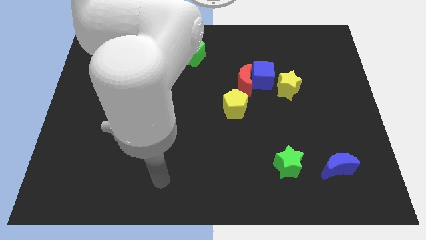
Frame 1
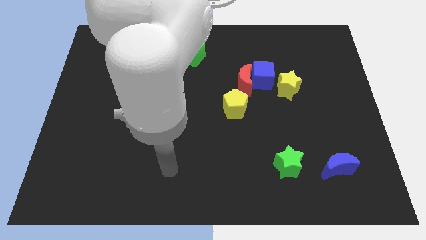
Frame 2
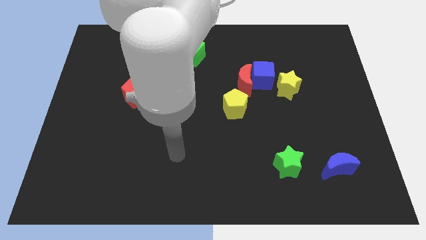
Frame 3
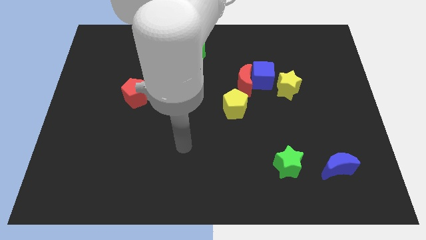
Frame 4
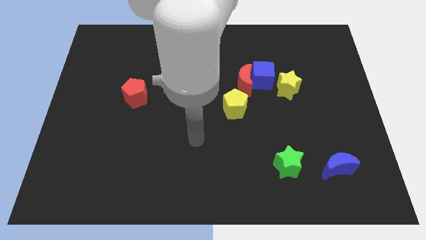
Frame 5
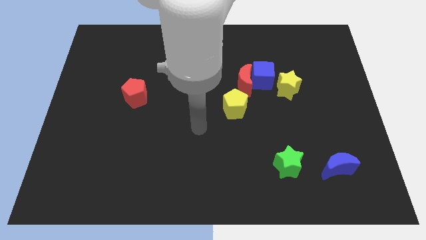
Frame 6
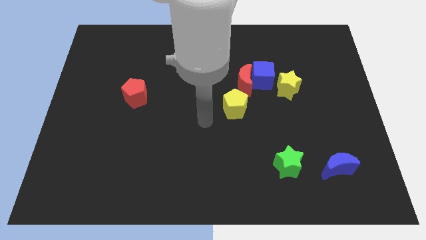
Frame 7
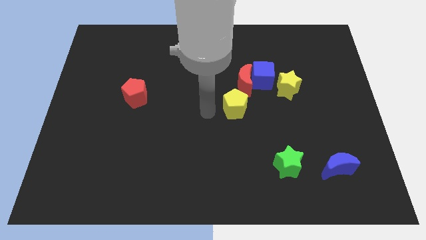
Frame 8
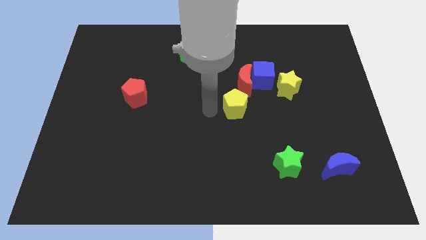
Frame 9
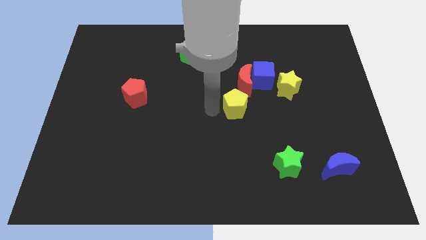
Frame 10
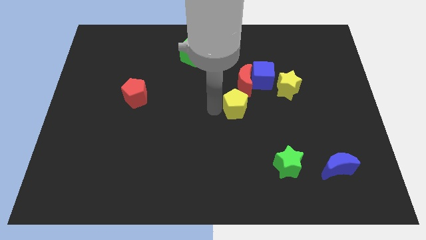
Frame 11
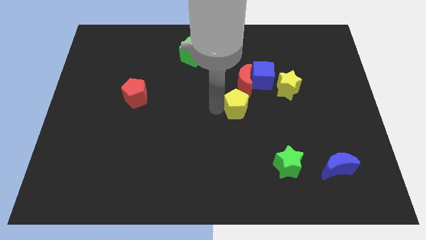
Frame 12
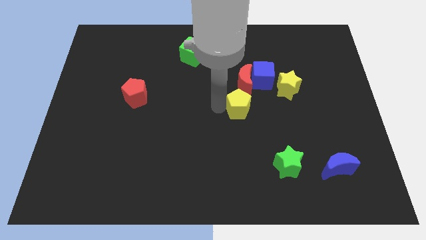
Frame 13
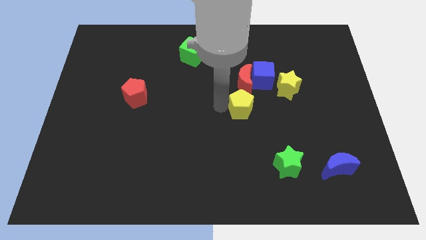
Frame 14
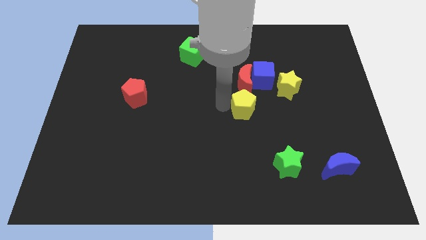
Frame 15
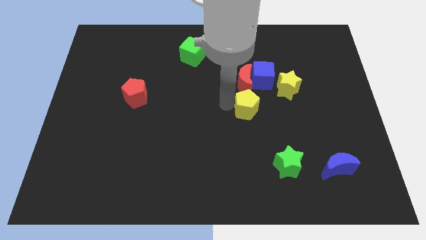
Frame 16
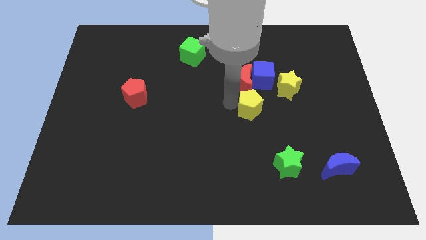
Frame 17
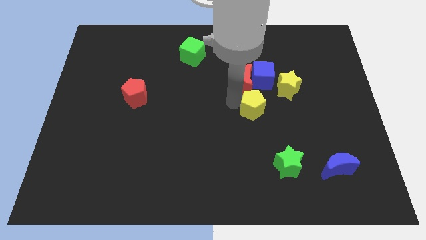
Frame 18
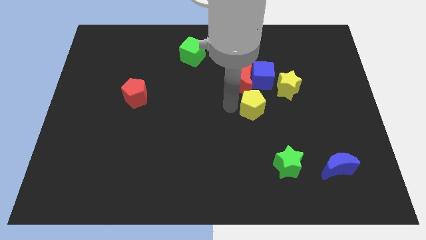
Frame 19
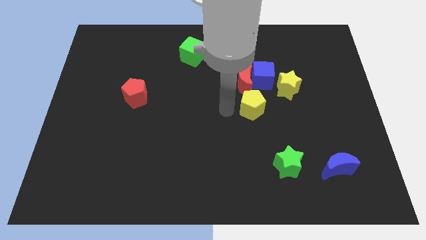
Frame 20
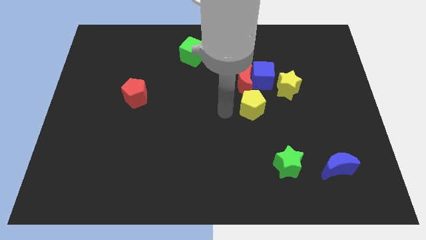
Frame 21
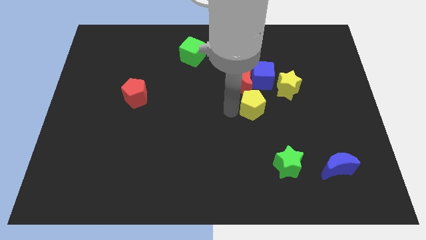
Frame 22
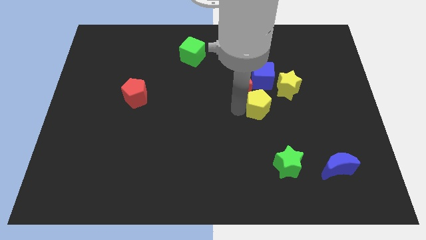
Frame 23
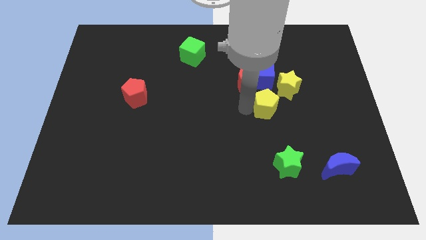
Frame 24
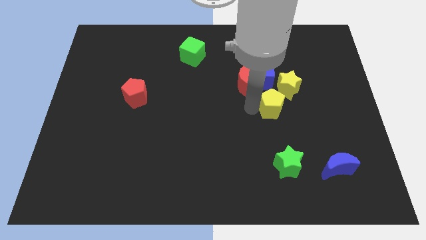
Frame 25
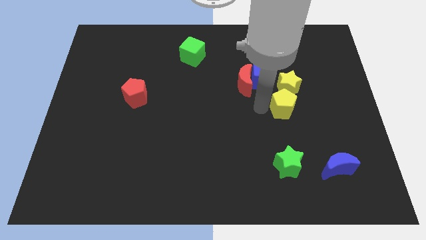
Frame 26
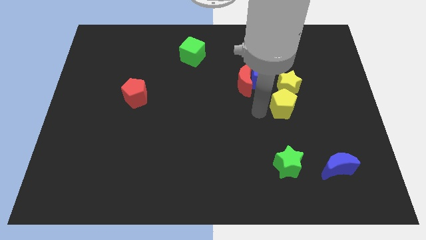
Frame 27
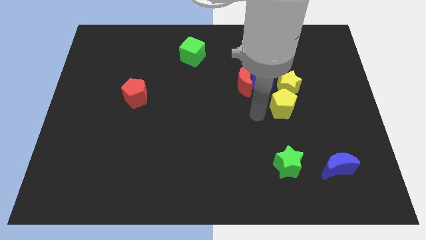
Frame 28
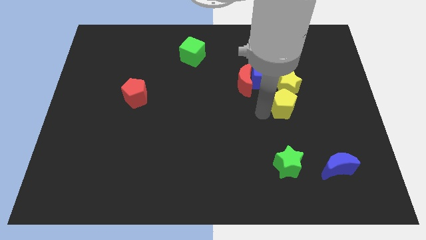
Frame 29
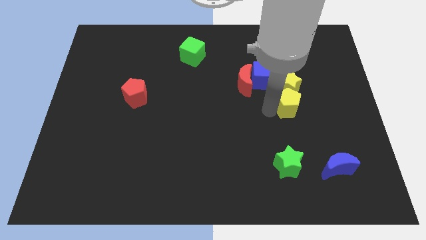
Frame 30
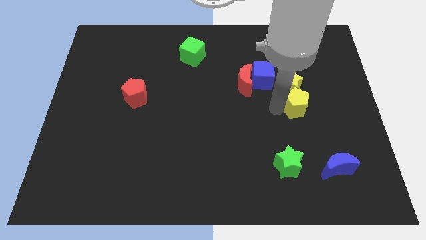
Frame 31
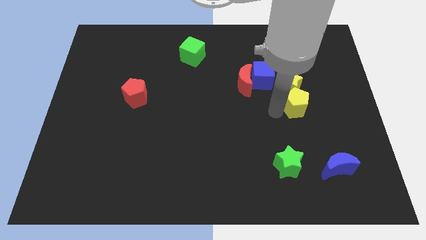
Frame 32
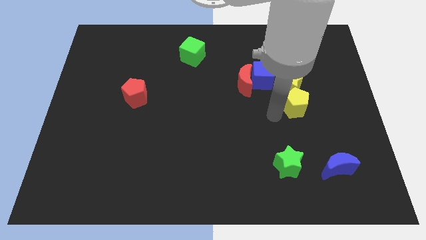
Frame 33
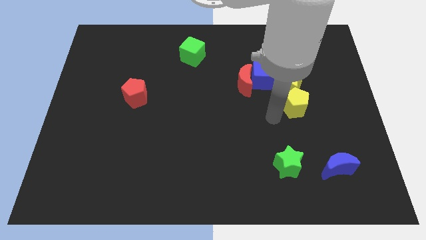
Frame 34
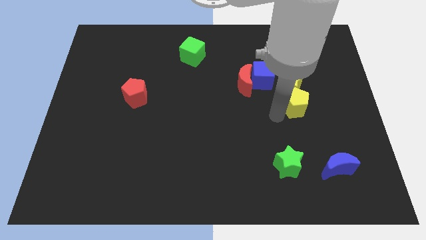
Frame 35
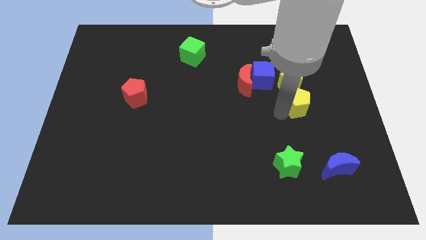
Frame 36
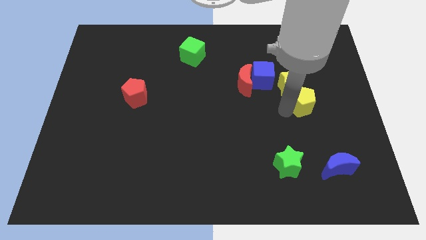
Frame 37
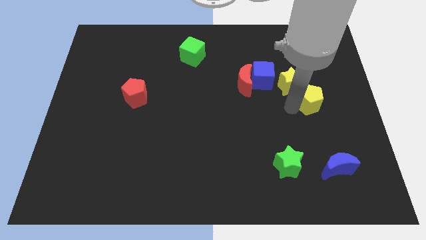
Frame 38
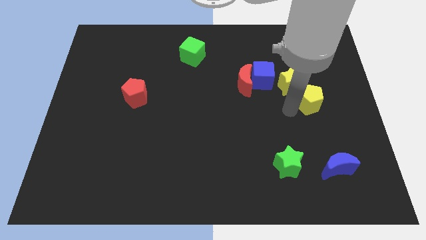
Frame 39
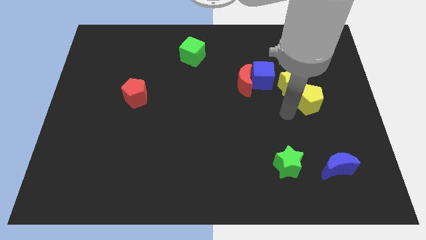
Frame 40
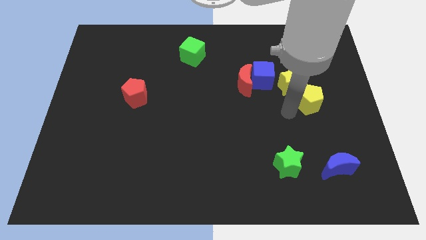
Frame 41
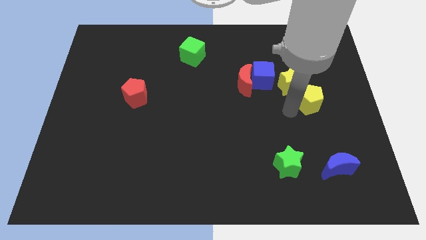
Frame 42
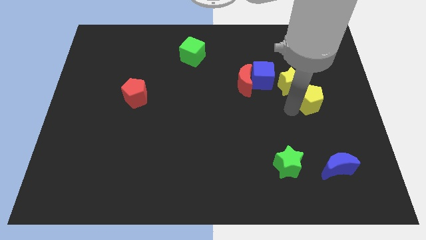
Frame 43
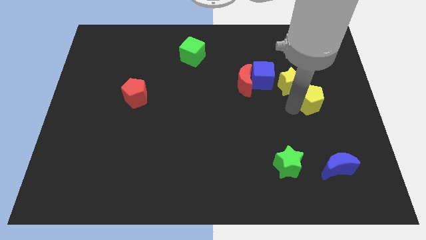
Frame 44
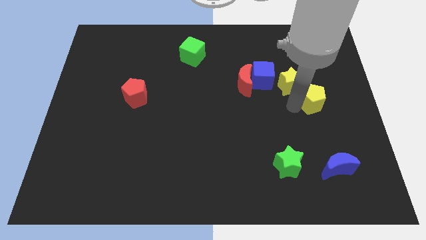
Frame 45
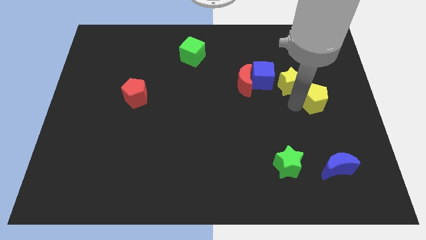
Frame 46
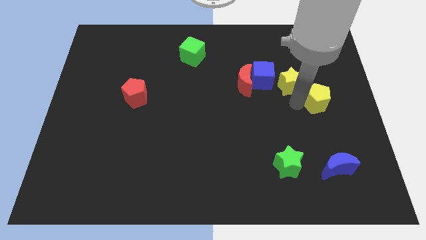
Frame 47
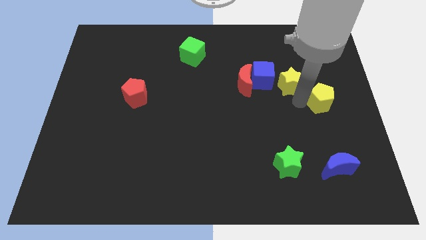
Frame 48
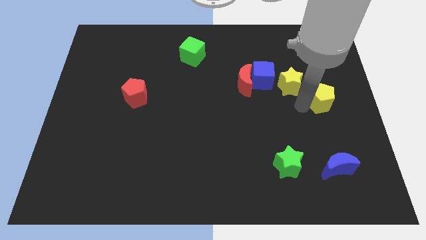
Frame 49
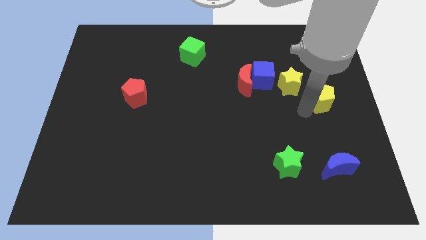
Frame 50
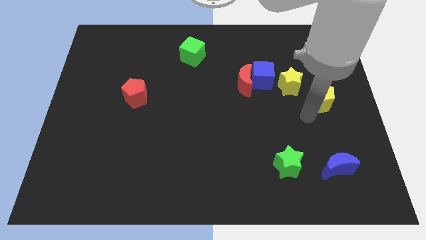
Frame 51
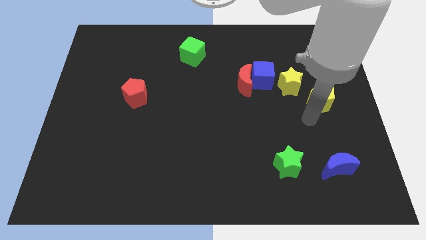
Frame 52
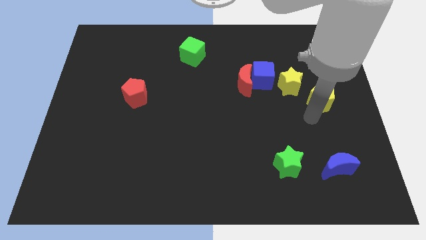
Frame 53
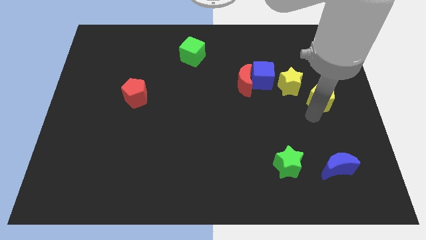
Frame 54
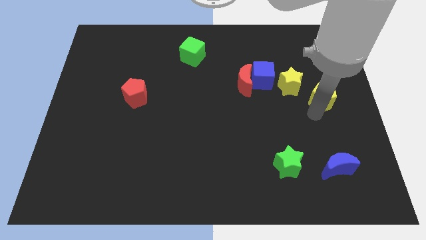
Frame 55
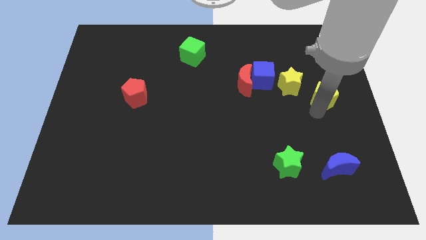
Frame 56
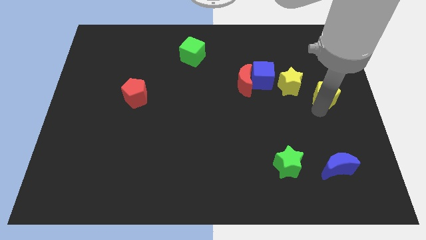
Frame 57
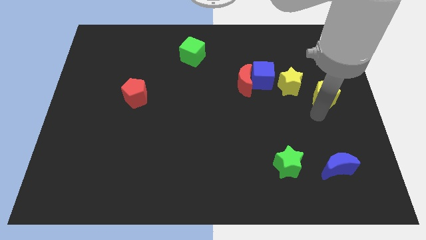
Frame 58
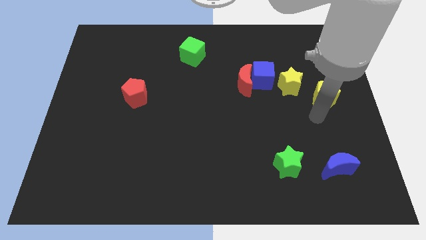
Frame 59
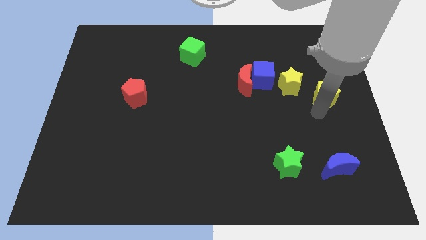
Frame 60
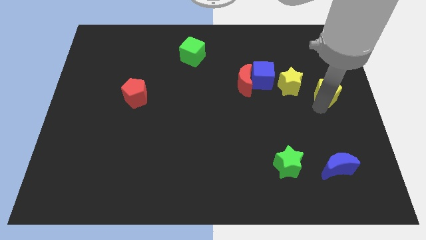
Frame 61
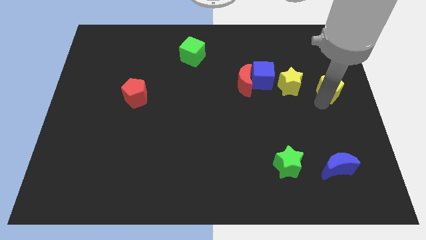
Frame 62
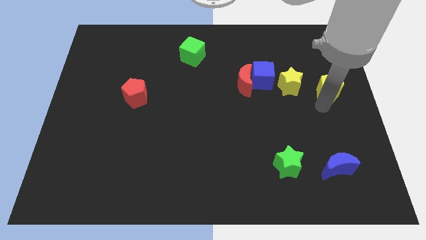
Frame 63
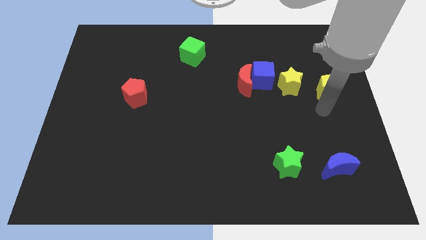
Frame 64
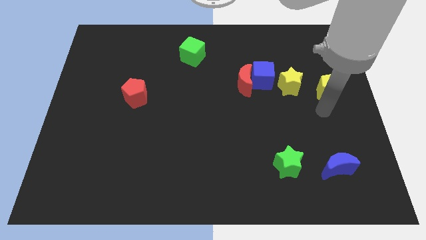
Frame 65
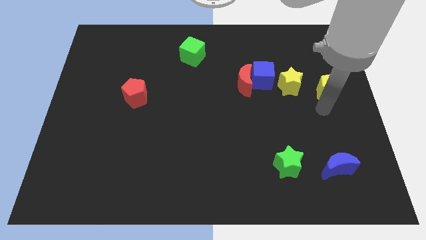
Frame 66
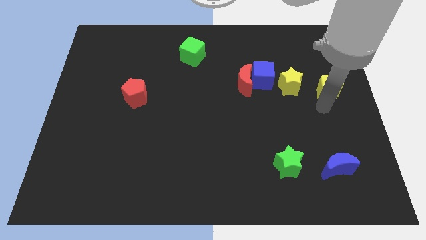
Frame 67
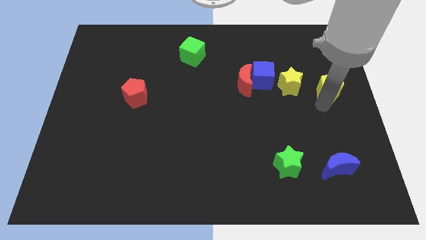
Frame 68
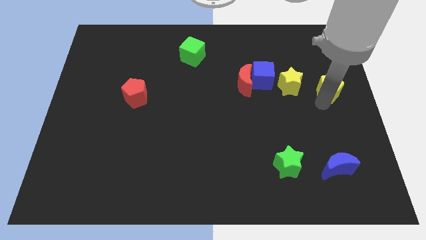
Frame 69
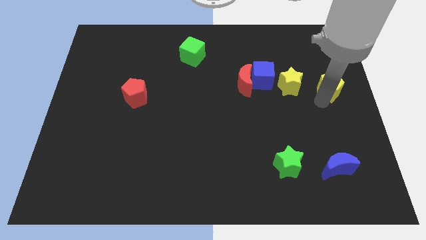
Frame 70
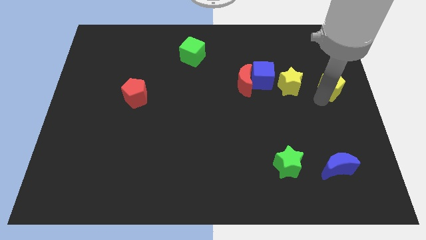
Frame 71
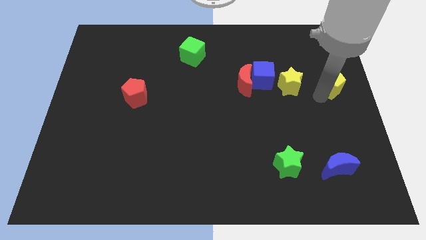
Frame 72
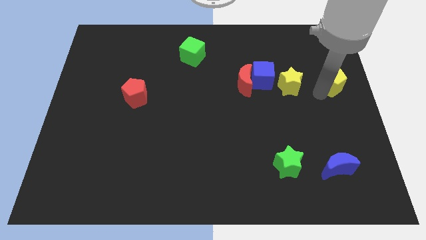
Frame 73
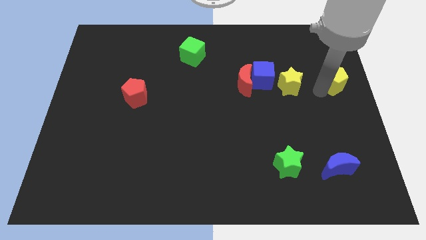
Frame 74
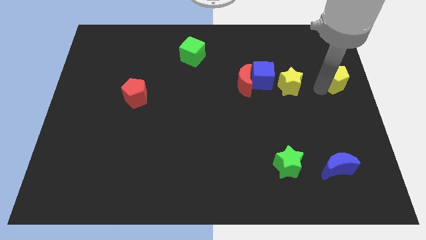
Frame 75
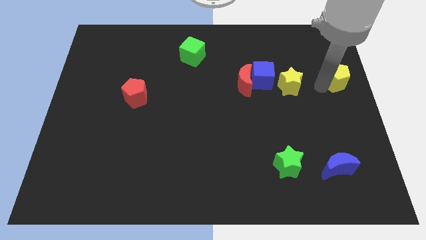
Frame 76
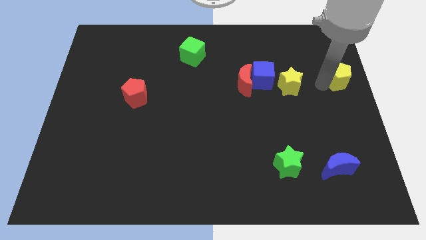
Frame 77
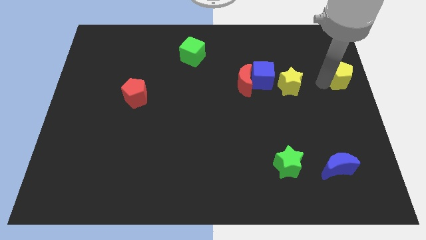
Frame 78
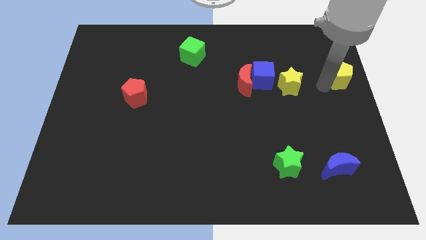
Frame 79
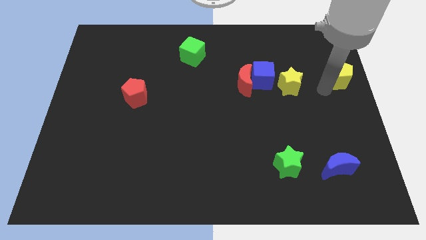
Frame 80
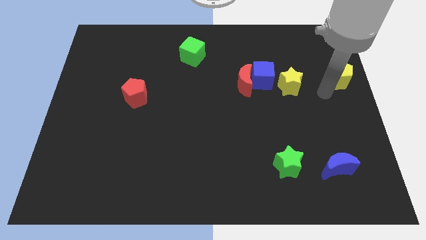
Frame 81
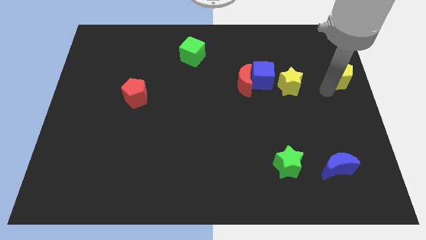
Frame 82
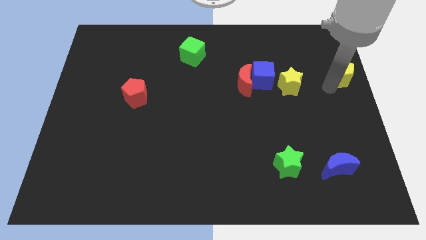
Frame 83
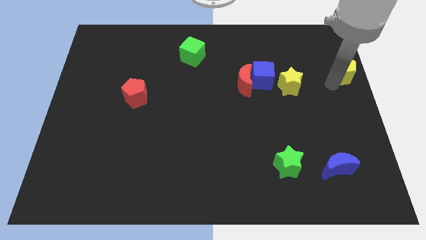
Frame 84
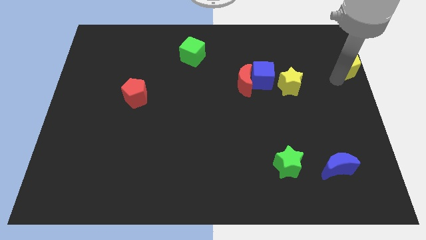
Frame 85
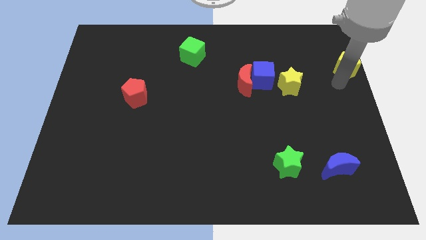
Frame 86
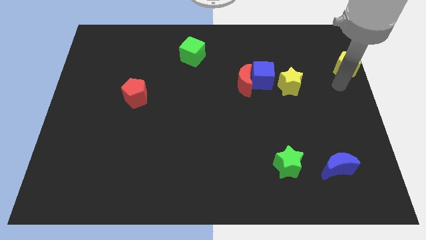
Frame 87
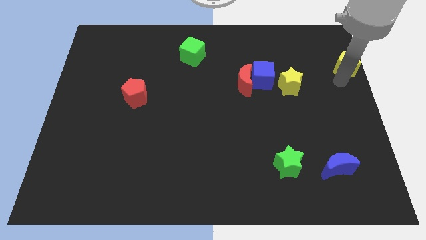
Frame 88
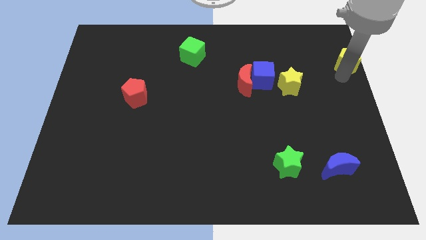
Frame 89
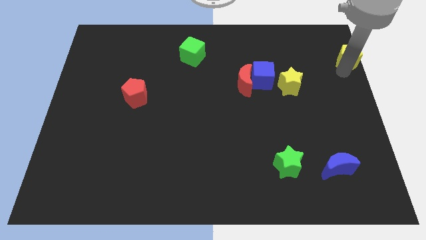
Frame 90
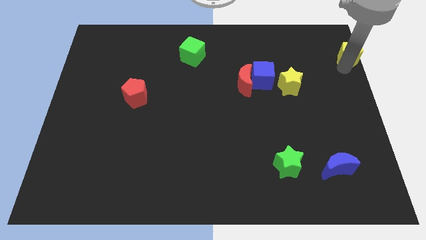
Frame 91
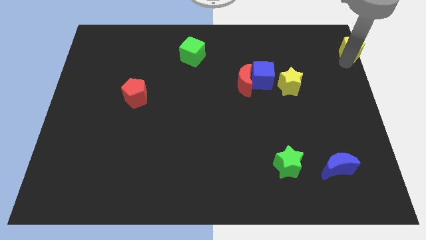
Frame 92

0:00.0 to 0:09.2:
slide the yellow pentagon to the upper right corner
